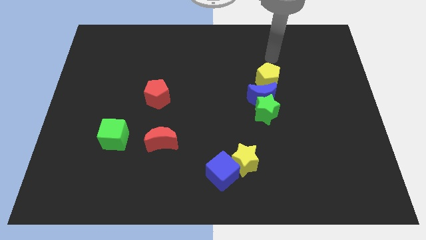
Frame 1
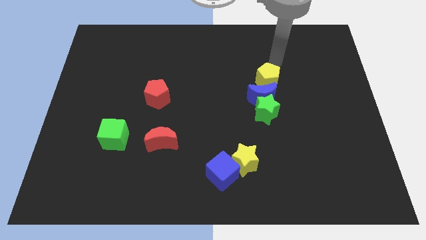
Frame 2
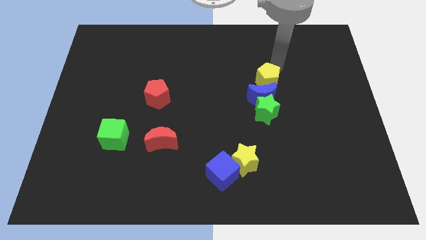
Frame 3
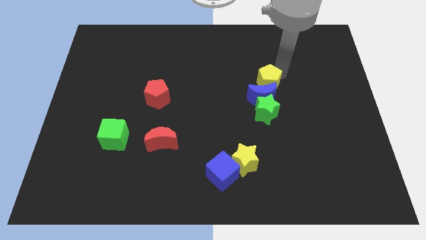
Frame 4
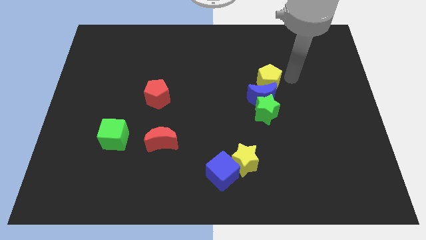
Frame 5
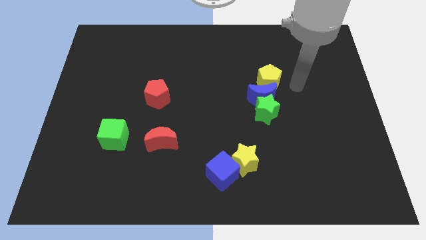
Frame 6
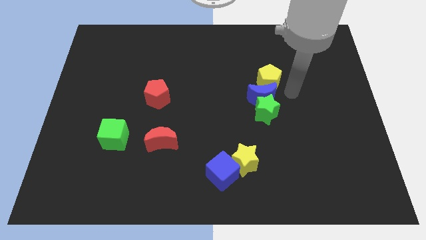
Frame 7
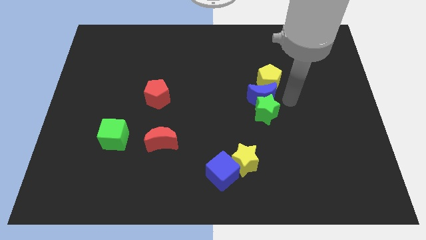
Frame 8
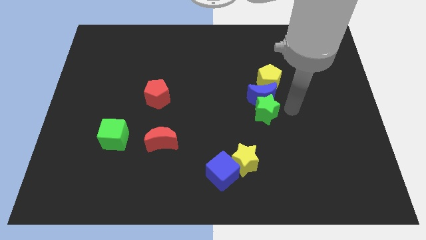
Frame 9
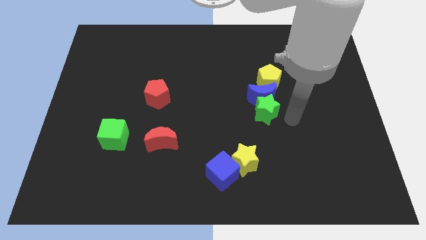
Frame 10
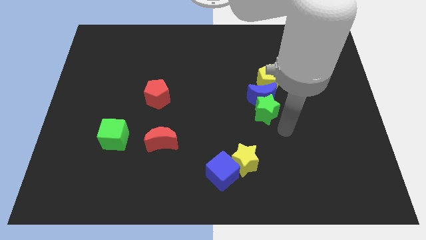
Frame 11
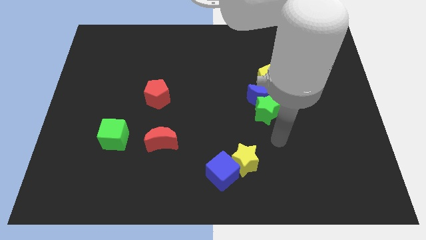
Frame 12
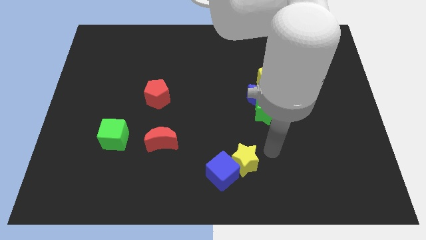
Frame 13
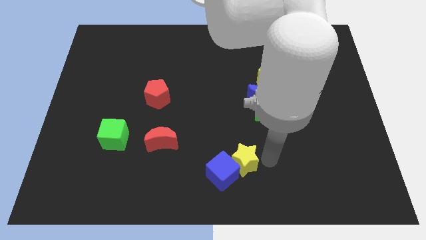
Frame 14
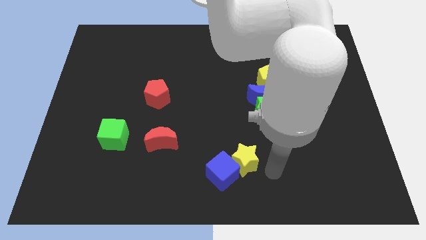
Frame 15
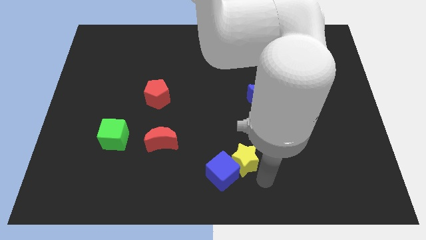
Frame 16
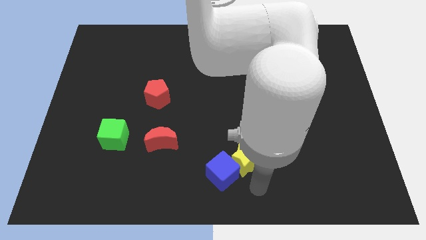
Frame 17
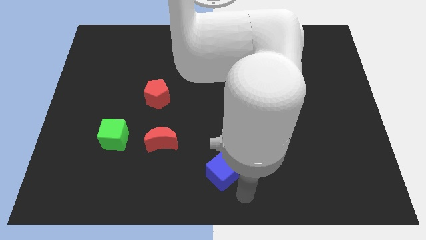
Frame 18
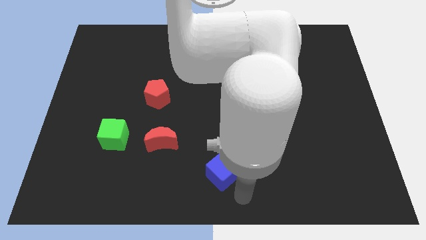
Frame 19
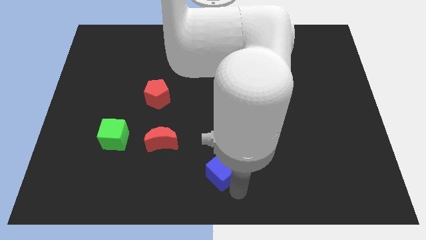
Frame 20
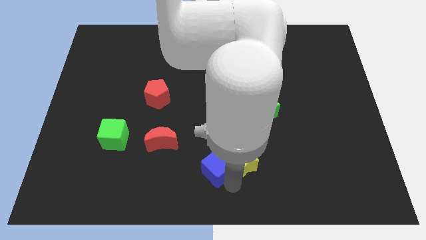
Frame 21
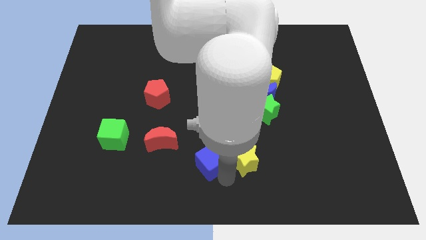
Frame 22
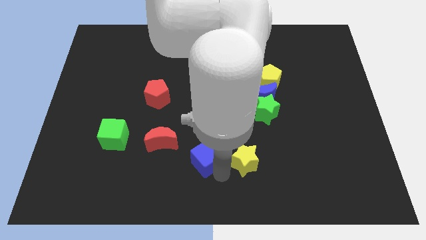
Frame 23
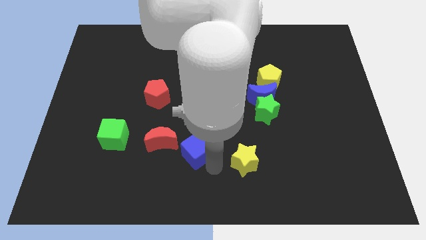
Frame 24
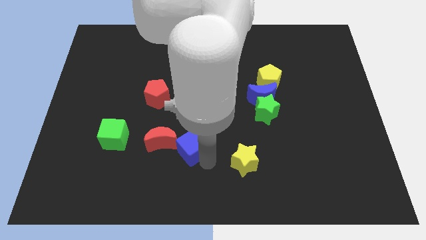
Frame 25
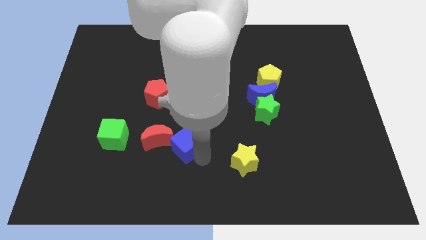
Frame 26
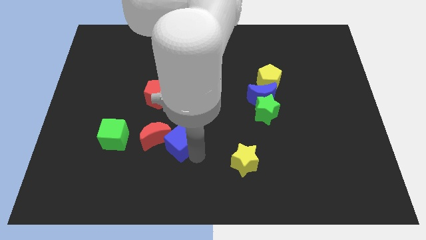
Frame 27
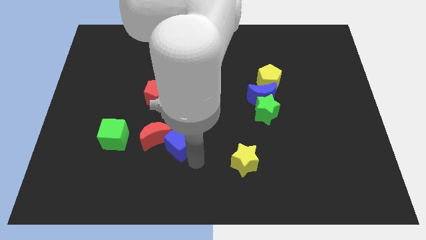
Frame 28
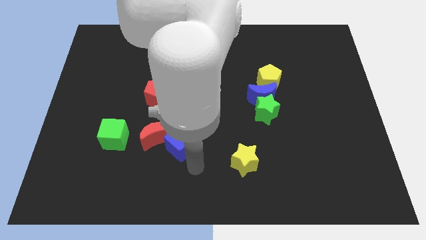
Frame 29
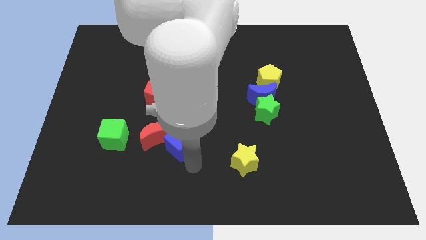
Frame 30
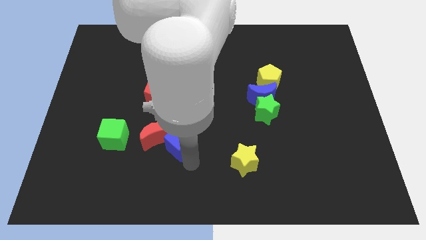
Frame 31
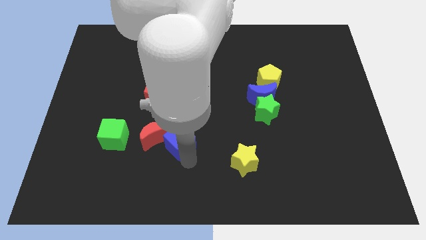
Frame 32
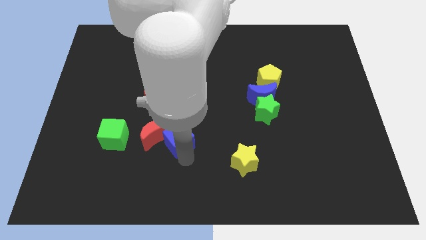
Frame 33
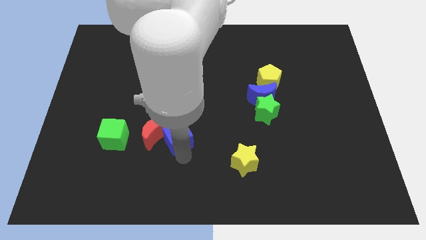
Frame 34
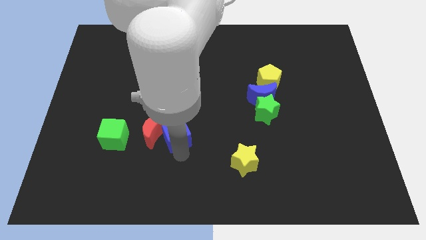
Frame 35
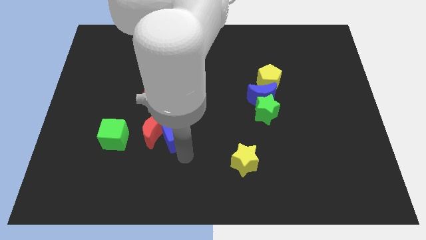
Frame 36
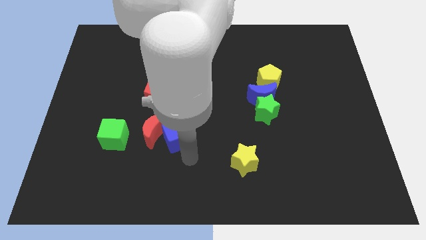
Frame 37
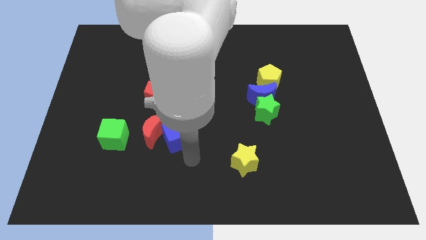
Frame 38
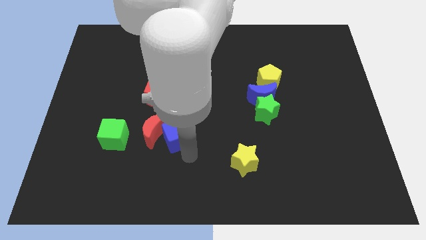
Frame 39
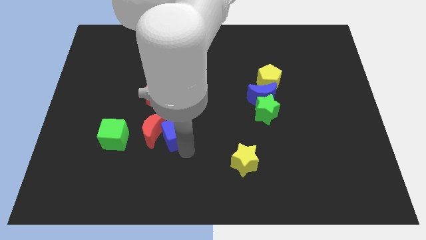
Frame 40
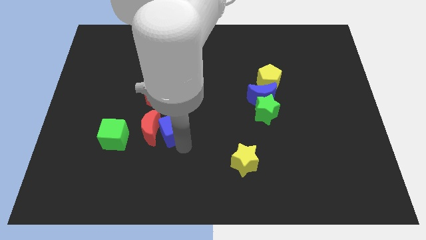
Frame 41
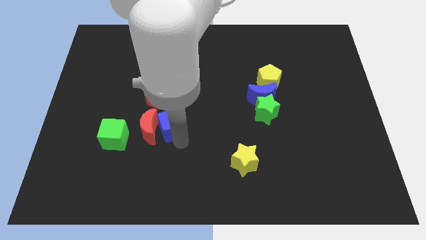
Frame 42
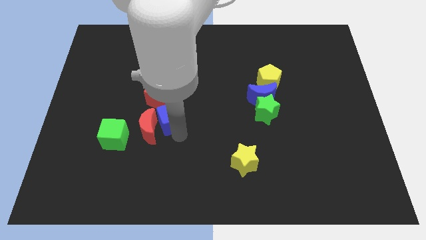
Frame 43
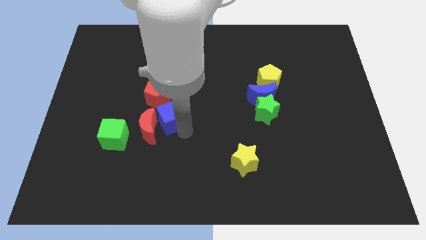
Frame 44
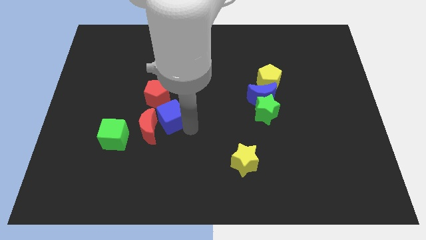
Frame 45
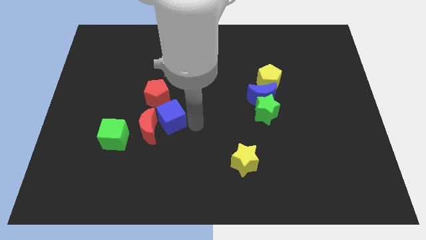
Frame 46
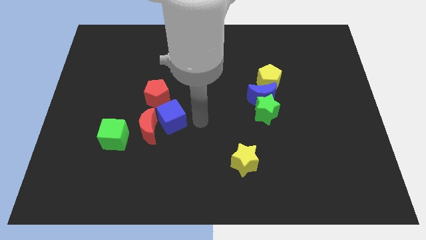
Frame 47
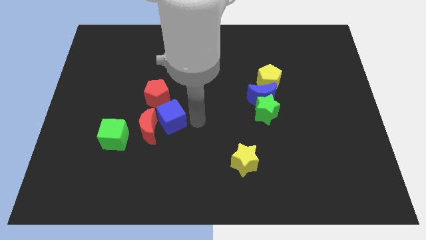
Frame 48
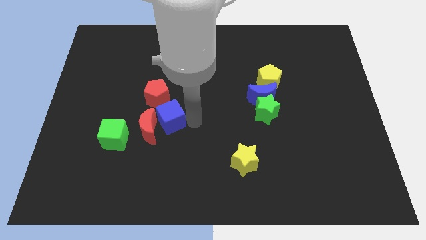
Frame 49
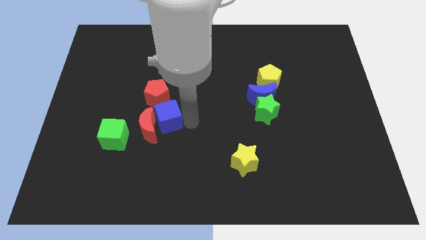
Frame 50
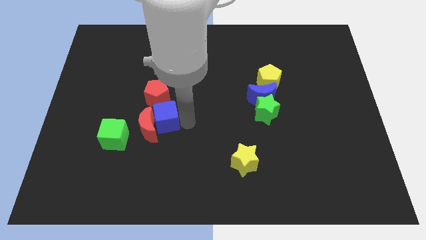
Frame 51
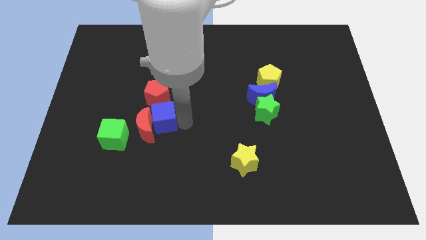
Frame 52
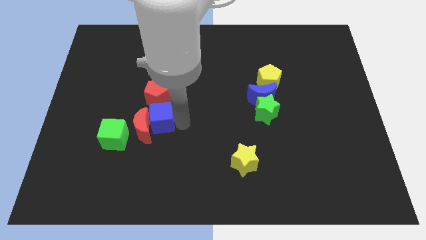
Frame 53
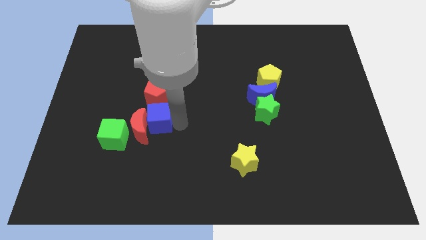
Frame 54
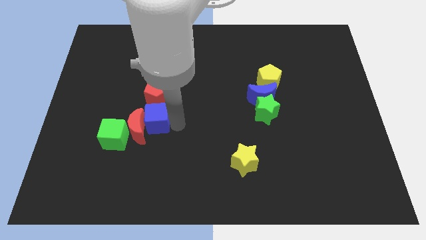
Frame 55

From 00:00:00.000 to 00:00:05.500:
move the blue cube upwards and left

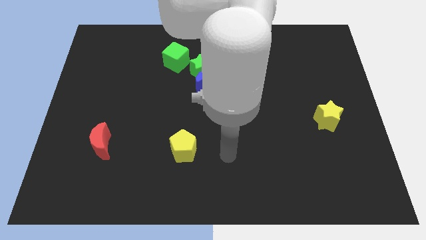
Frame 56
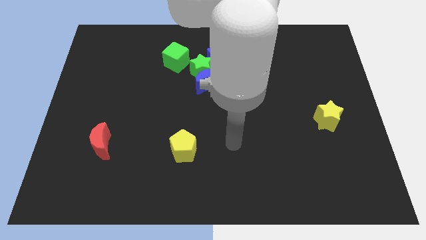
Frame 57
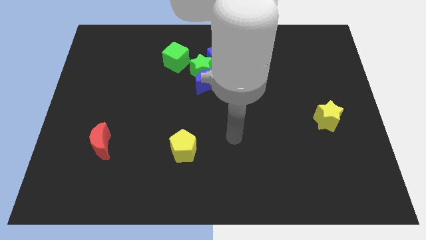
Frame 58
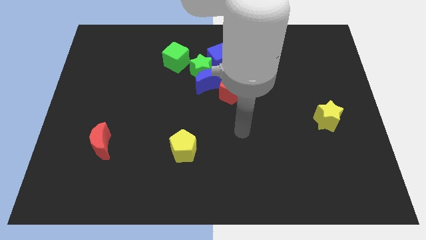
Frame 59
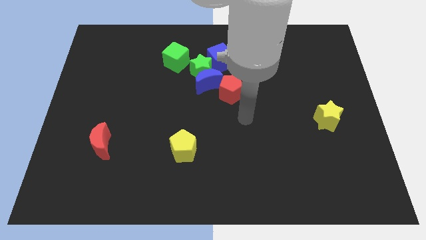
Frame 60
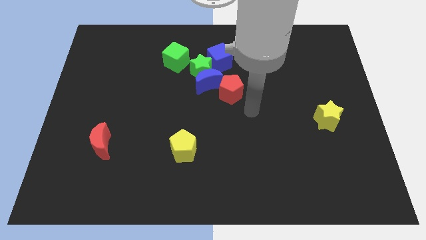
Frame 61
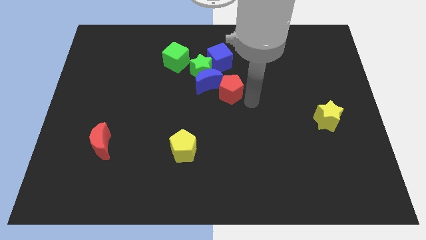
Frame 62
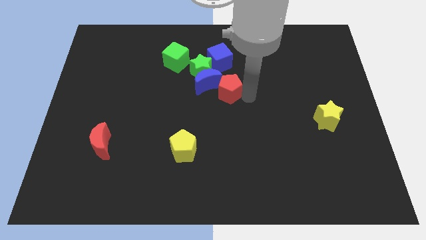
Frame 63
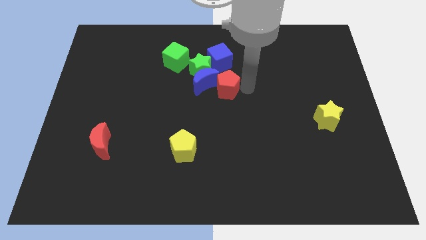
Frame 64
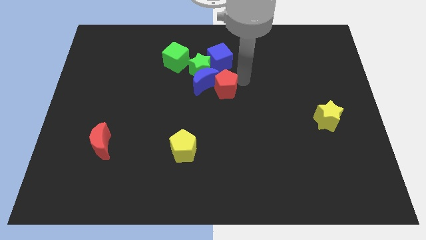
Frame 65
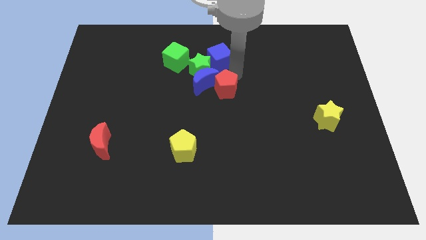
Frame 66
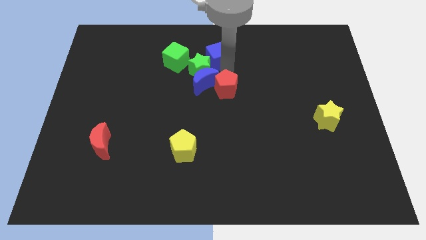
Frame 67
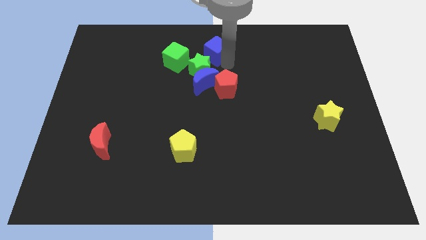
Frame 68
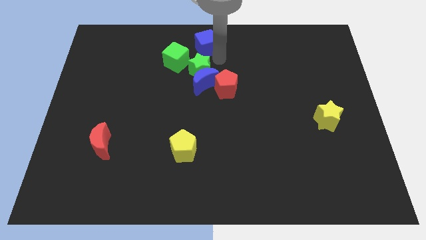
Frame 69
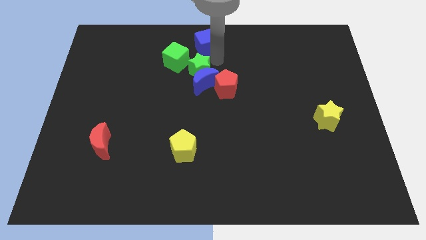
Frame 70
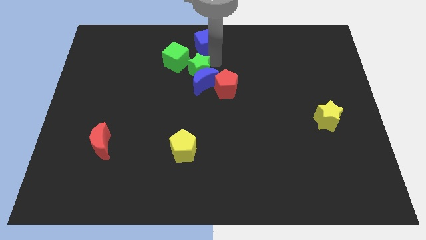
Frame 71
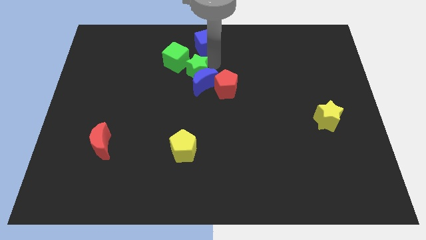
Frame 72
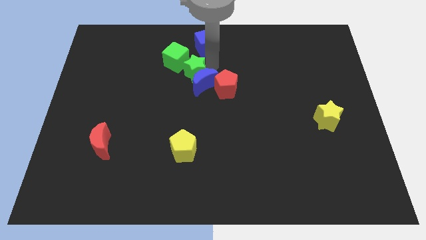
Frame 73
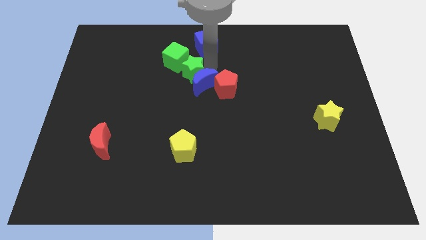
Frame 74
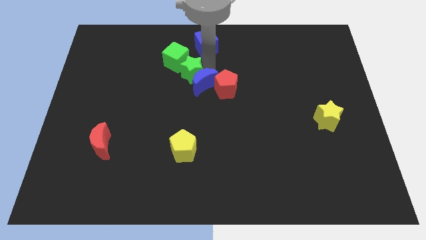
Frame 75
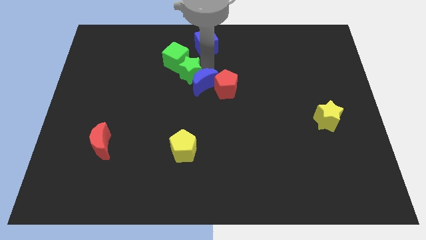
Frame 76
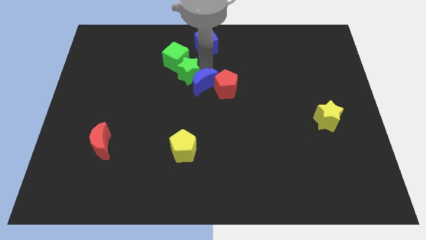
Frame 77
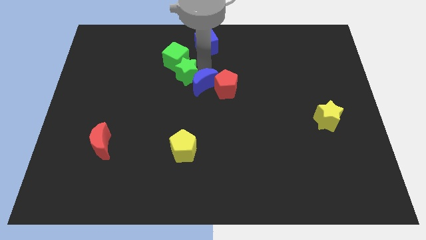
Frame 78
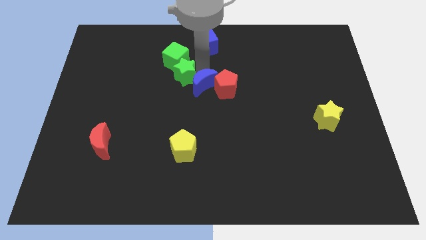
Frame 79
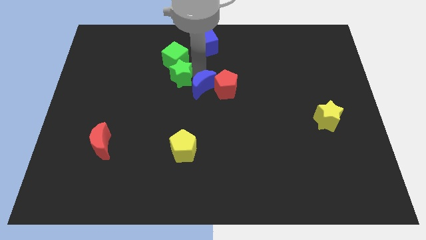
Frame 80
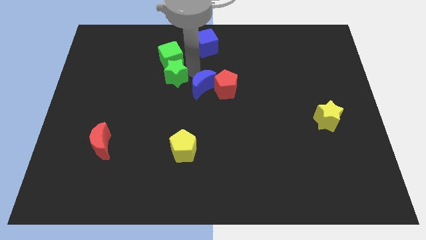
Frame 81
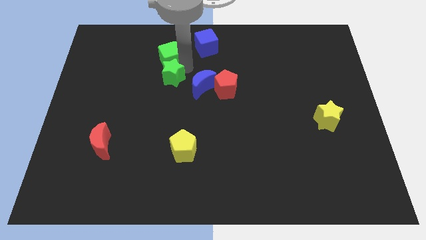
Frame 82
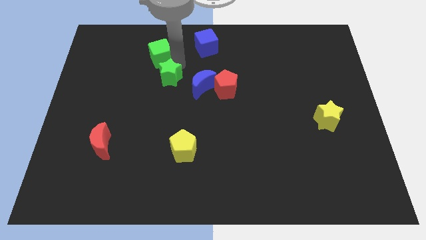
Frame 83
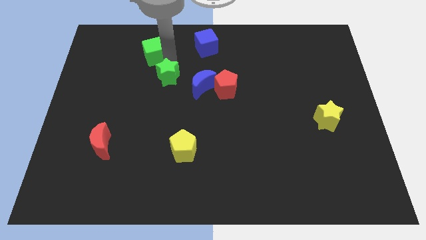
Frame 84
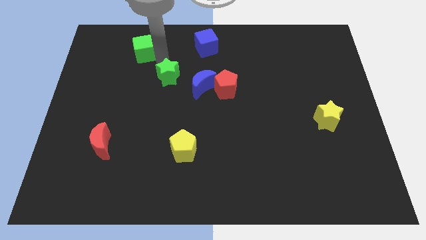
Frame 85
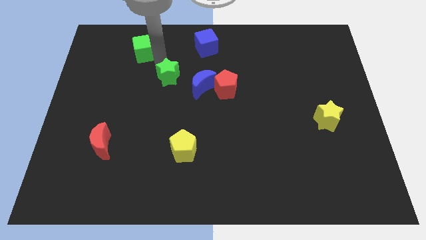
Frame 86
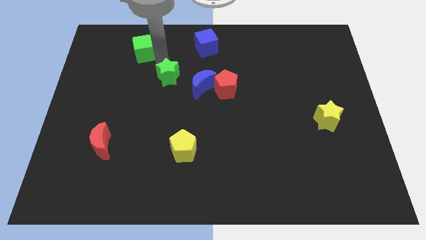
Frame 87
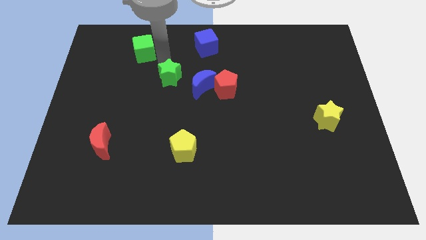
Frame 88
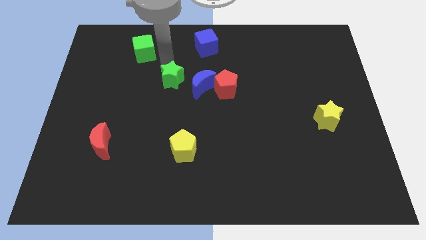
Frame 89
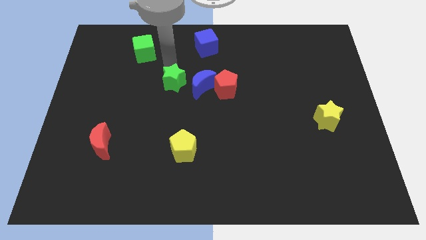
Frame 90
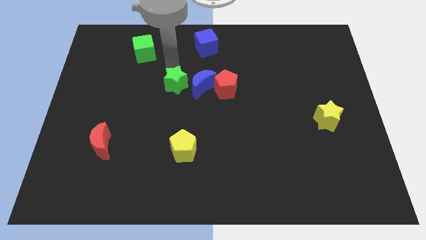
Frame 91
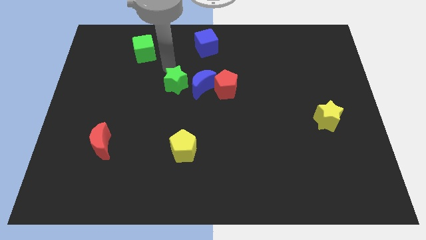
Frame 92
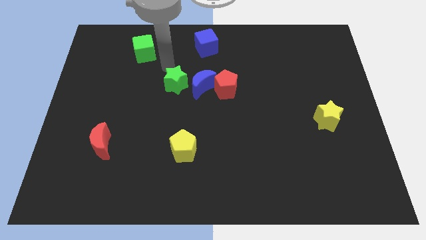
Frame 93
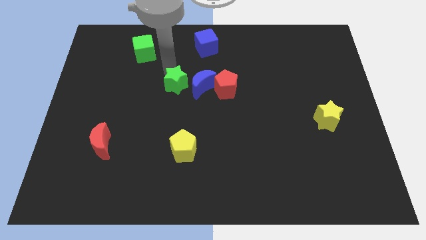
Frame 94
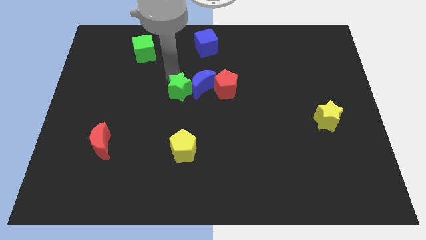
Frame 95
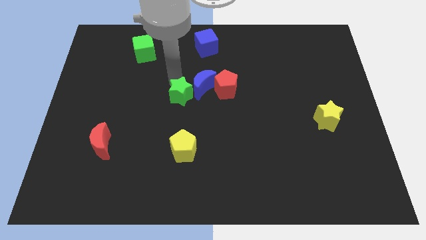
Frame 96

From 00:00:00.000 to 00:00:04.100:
slightly move the green star downwards
